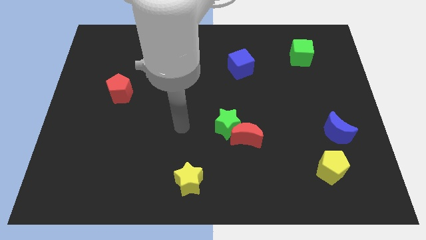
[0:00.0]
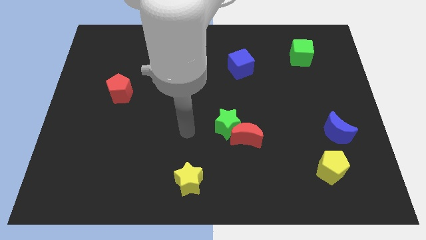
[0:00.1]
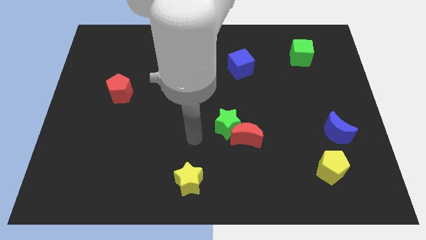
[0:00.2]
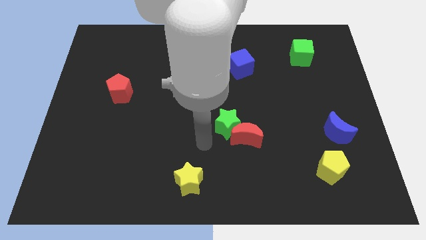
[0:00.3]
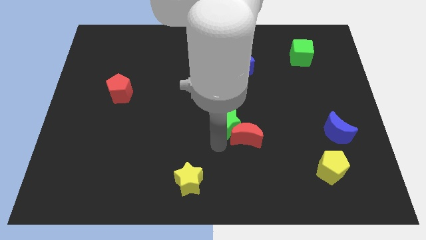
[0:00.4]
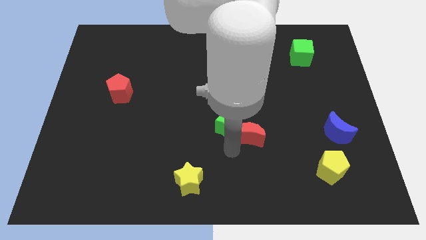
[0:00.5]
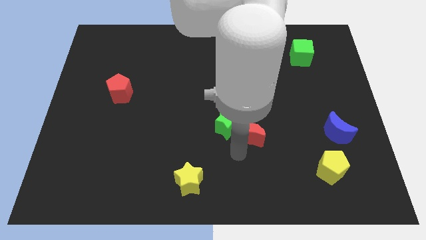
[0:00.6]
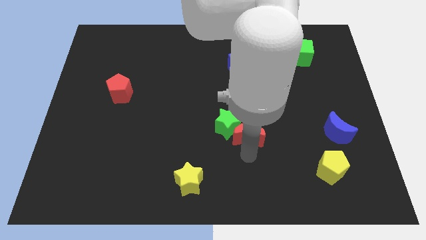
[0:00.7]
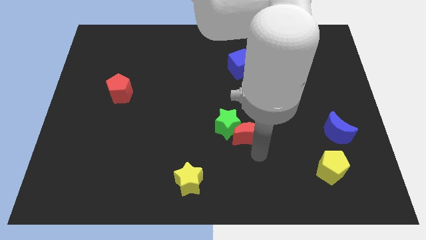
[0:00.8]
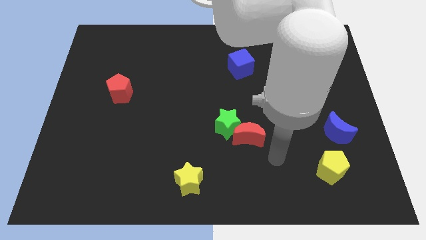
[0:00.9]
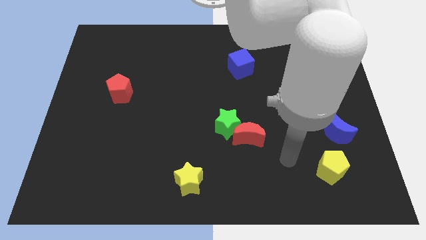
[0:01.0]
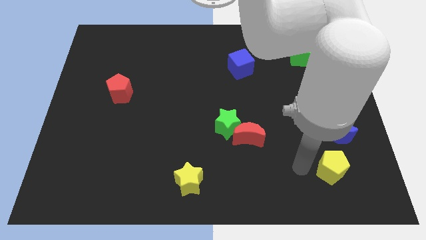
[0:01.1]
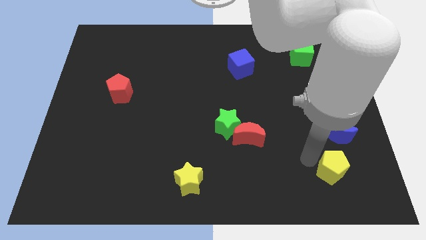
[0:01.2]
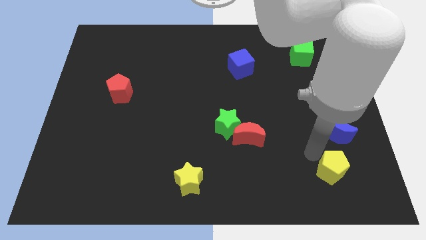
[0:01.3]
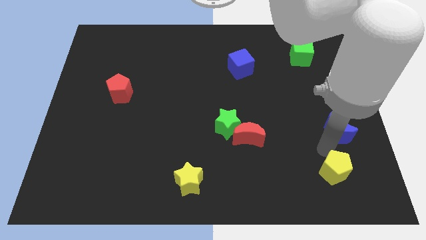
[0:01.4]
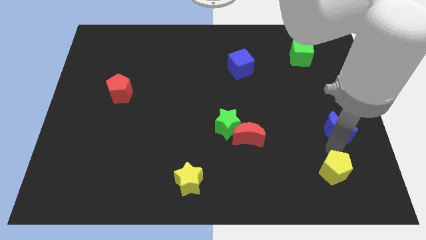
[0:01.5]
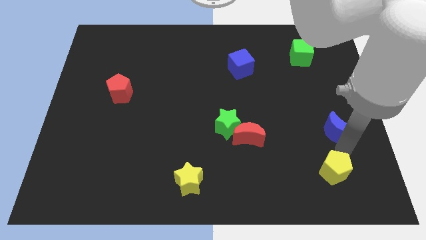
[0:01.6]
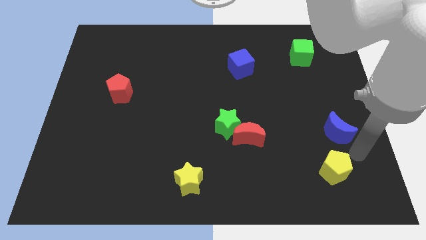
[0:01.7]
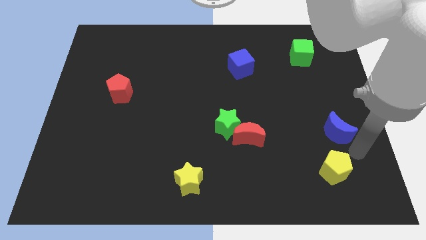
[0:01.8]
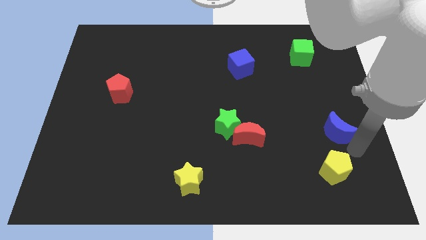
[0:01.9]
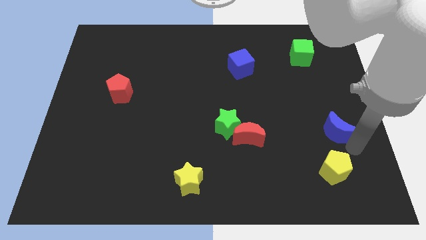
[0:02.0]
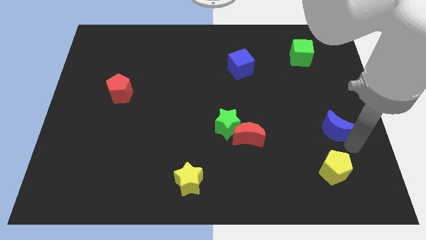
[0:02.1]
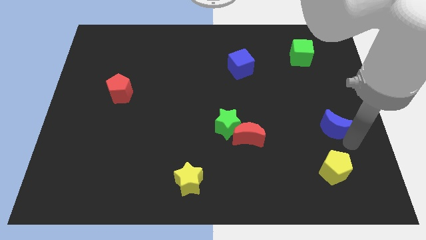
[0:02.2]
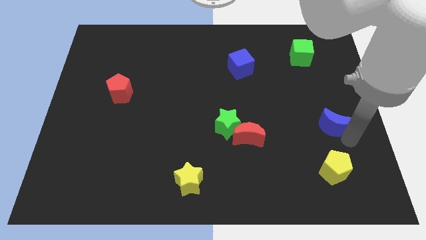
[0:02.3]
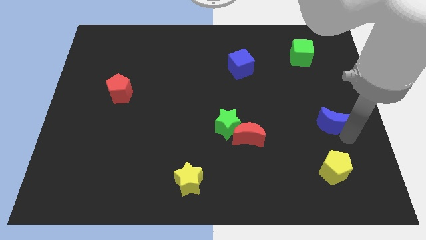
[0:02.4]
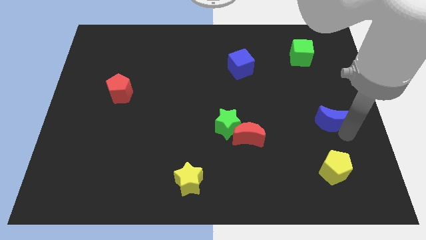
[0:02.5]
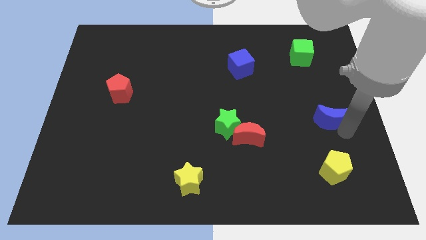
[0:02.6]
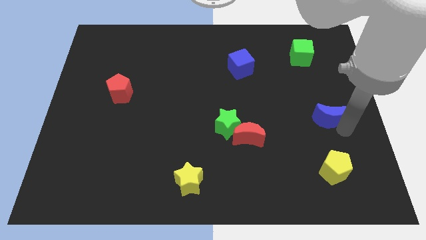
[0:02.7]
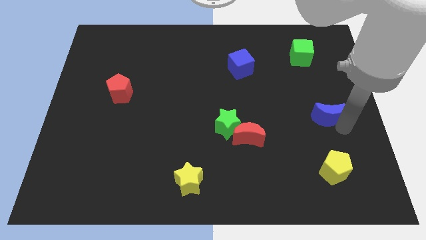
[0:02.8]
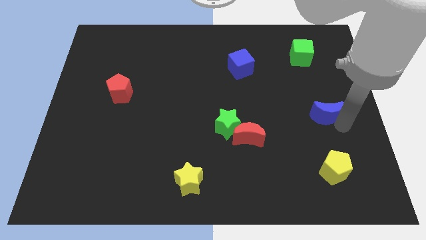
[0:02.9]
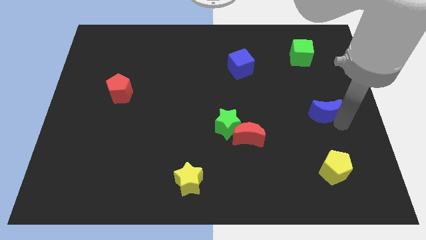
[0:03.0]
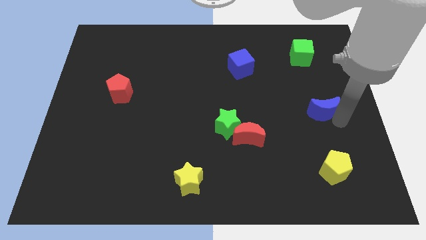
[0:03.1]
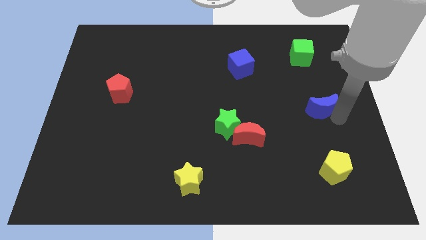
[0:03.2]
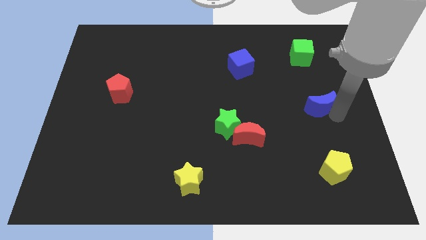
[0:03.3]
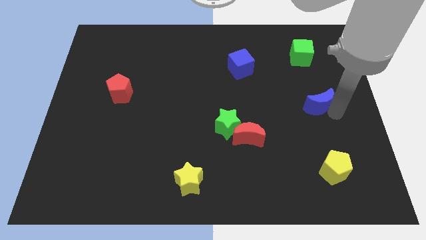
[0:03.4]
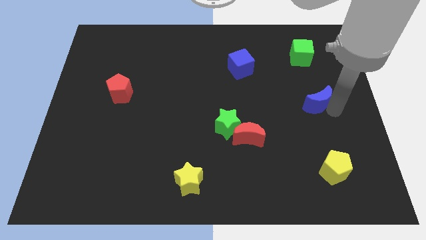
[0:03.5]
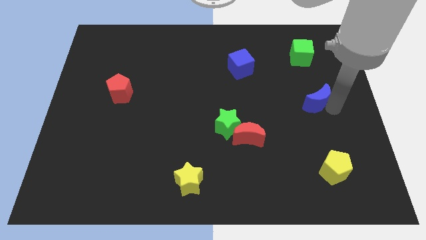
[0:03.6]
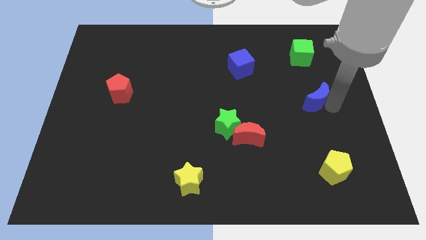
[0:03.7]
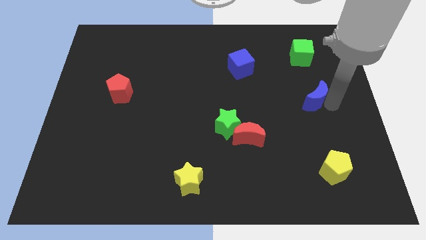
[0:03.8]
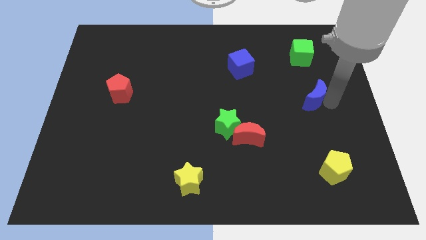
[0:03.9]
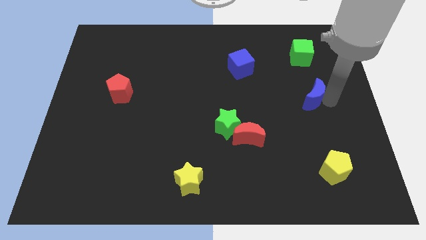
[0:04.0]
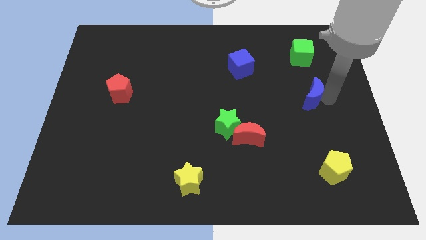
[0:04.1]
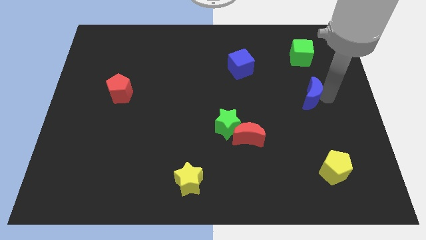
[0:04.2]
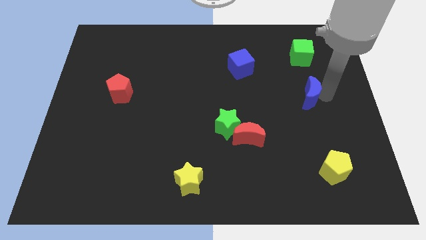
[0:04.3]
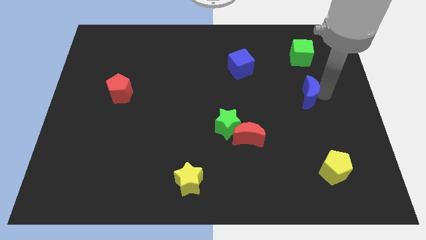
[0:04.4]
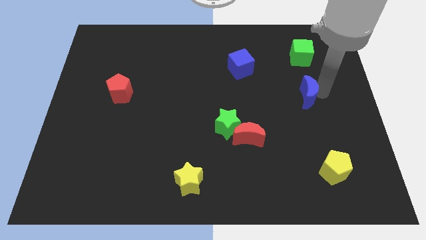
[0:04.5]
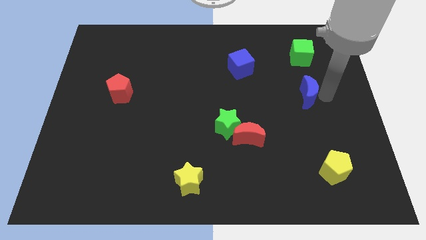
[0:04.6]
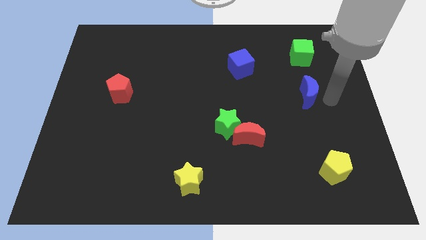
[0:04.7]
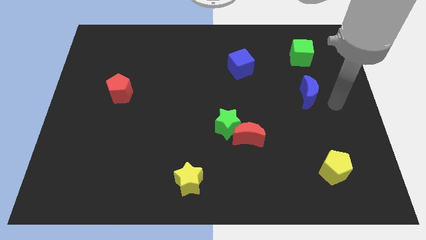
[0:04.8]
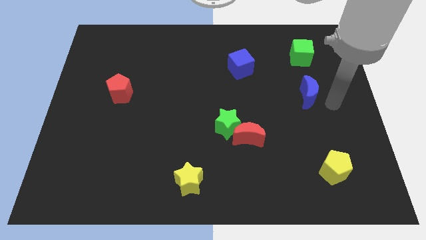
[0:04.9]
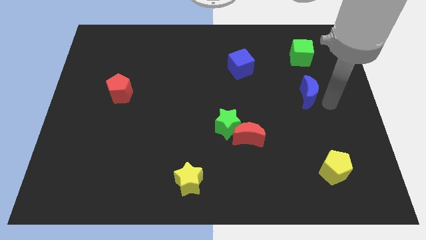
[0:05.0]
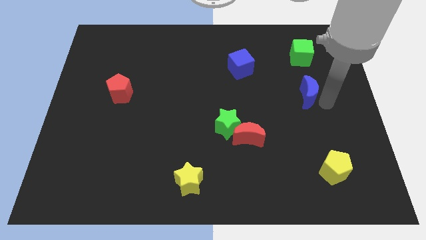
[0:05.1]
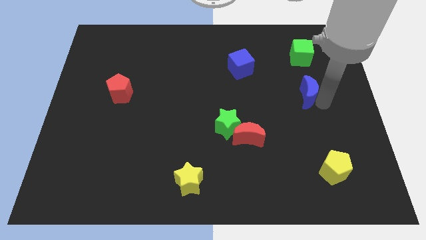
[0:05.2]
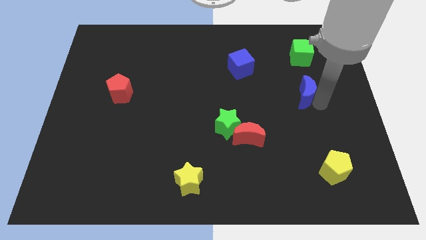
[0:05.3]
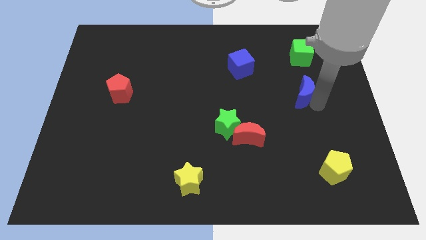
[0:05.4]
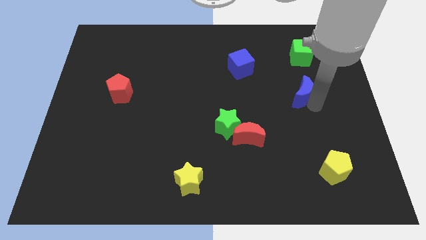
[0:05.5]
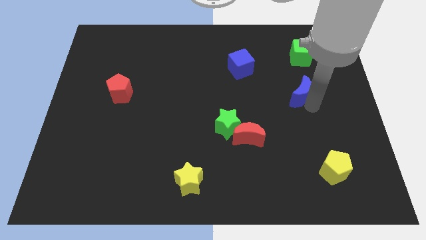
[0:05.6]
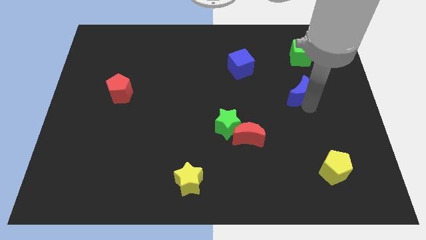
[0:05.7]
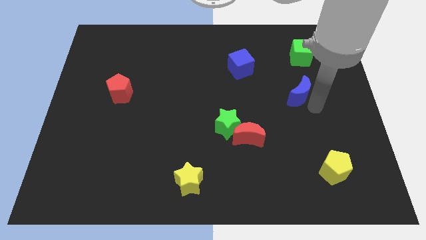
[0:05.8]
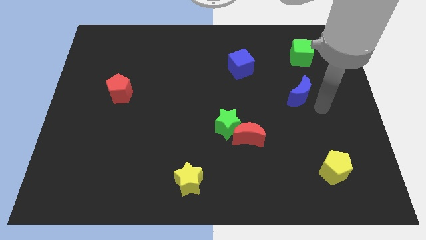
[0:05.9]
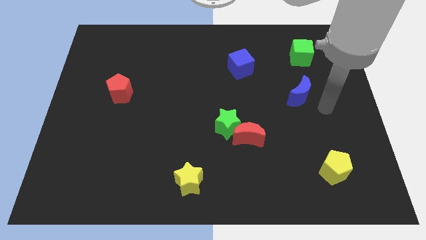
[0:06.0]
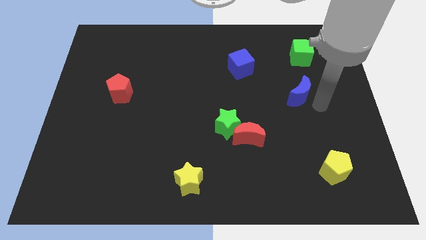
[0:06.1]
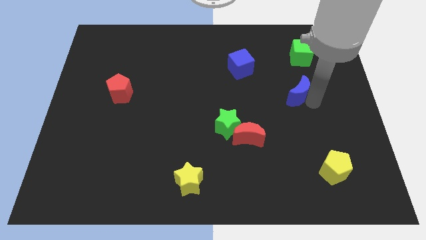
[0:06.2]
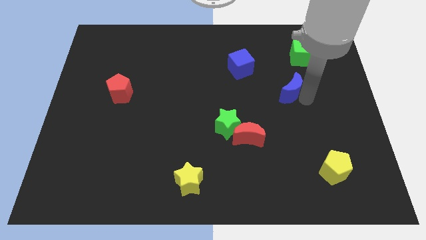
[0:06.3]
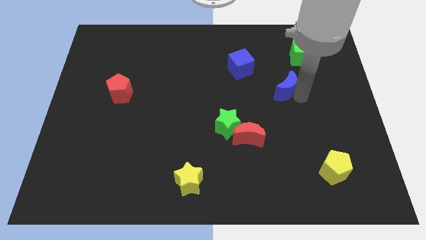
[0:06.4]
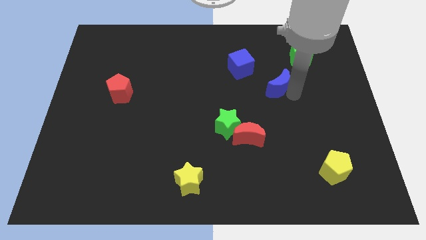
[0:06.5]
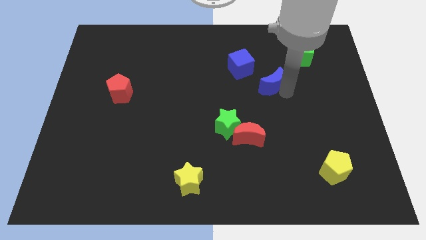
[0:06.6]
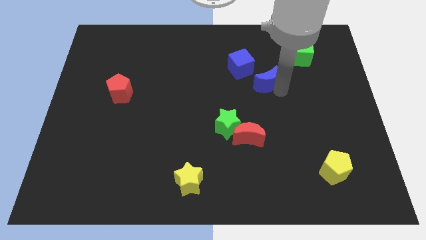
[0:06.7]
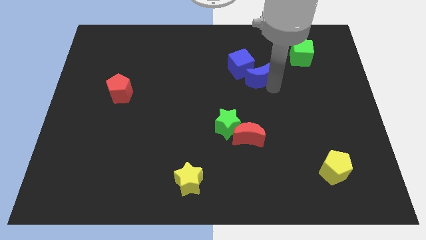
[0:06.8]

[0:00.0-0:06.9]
put the blue moon close to the blue cube

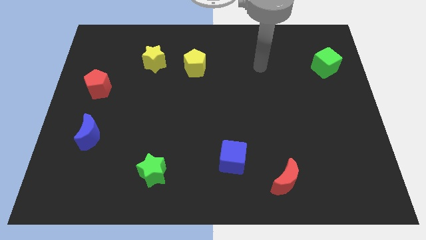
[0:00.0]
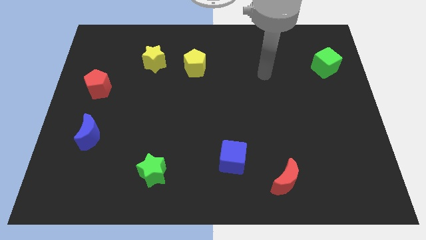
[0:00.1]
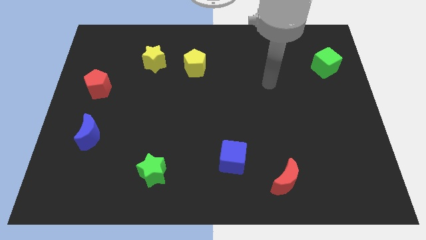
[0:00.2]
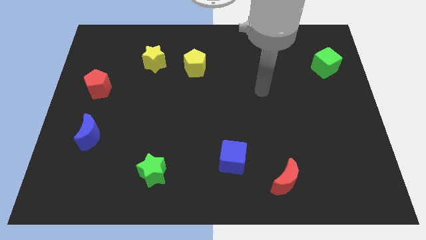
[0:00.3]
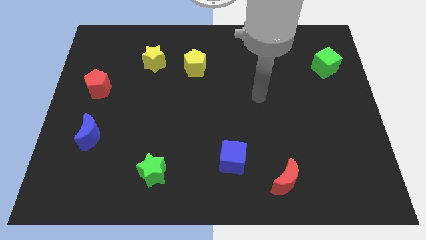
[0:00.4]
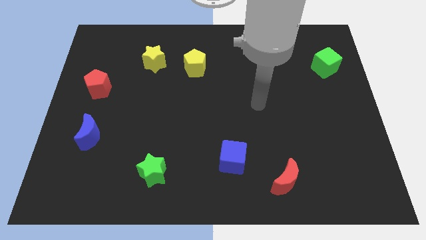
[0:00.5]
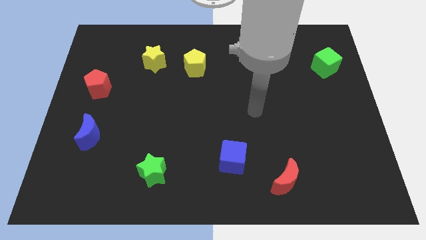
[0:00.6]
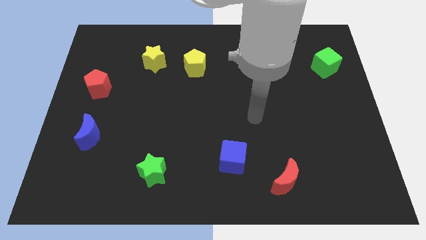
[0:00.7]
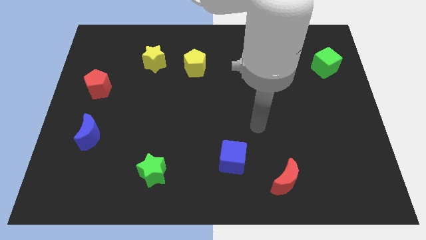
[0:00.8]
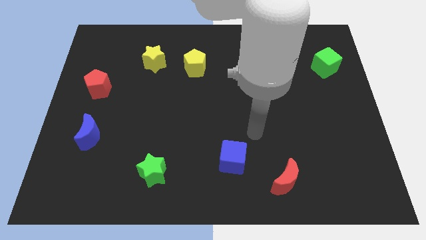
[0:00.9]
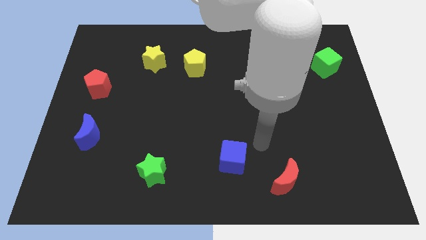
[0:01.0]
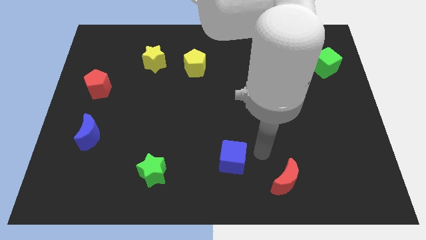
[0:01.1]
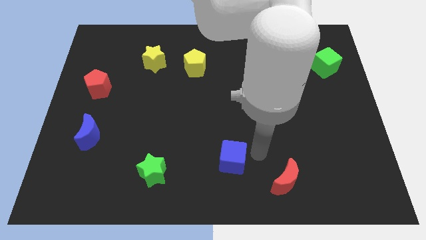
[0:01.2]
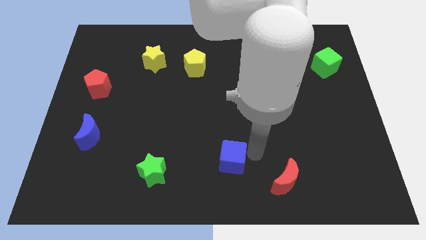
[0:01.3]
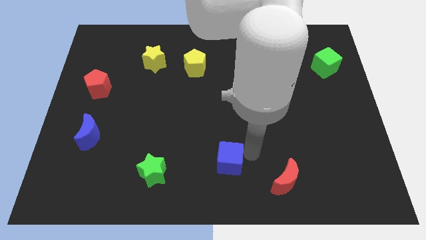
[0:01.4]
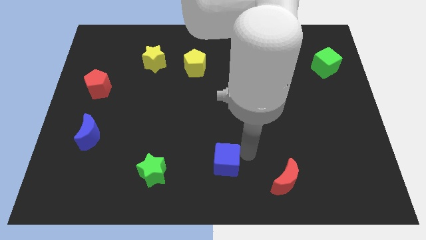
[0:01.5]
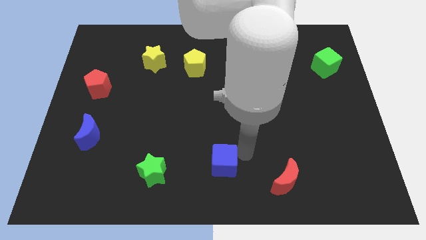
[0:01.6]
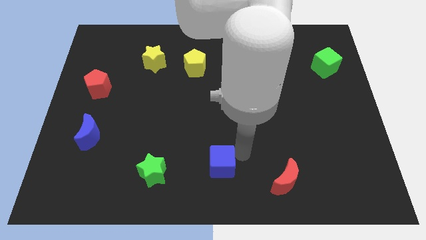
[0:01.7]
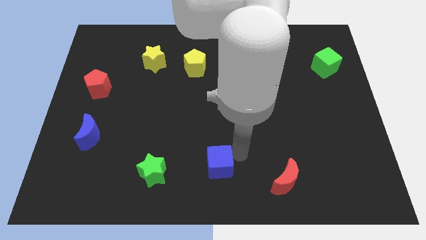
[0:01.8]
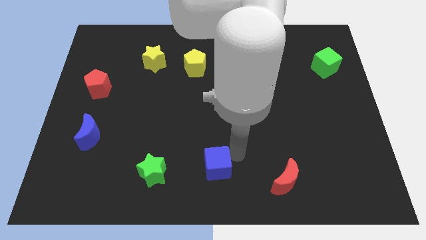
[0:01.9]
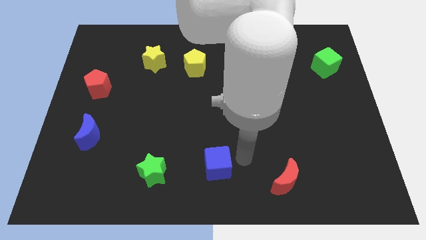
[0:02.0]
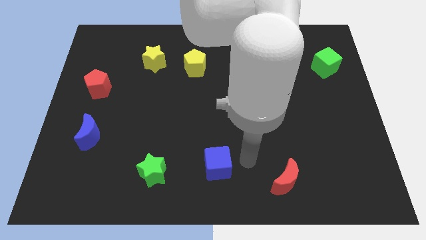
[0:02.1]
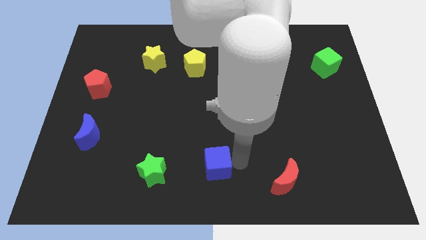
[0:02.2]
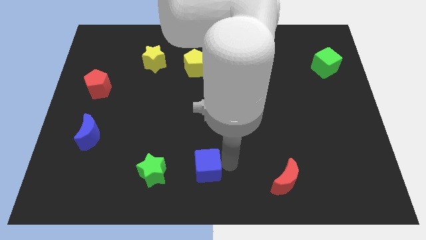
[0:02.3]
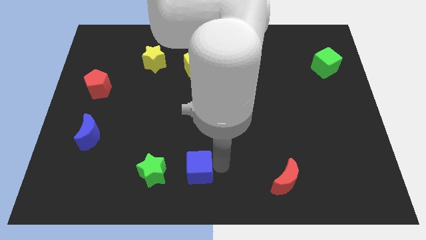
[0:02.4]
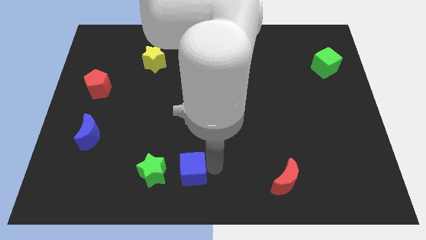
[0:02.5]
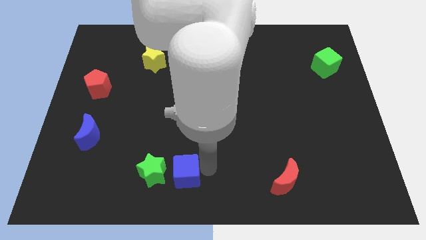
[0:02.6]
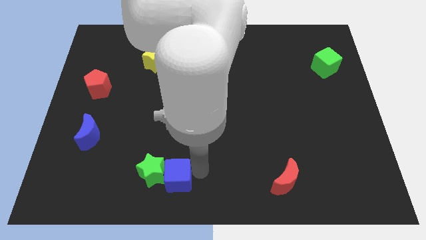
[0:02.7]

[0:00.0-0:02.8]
put the blue cube next to the green star
